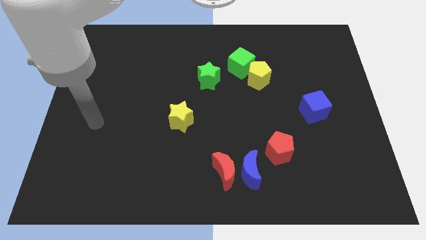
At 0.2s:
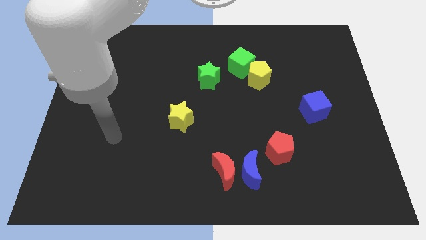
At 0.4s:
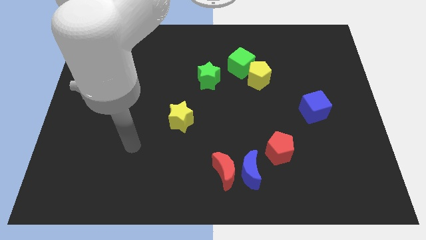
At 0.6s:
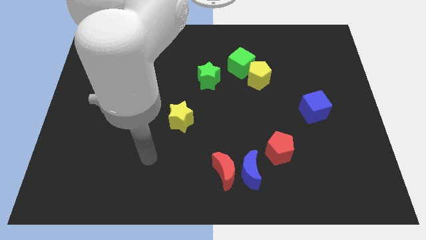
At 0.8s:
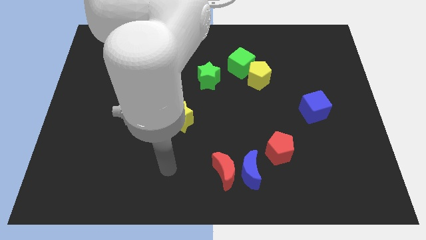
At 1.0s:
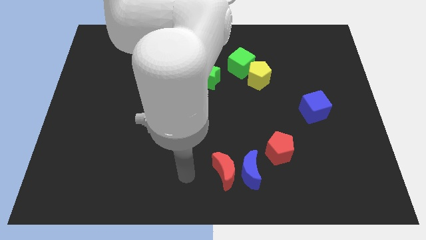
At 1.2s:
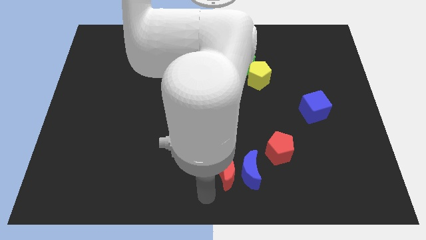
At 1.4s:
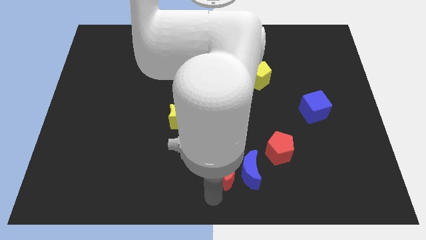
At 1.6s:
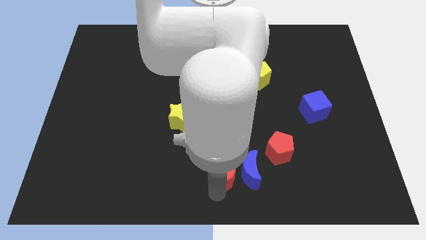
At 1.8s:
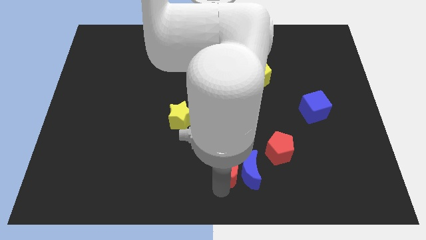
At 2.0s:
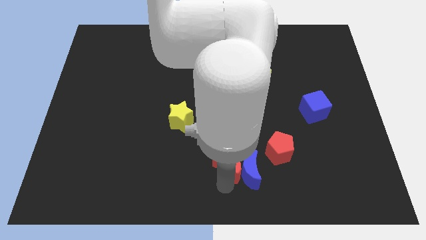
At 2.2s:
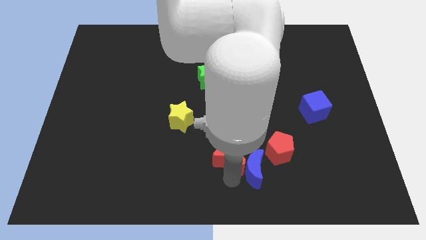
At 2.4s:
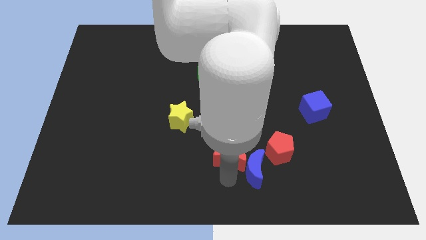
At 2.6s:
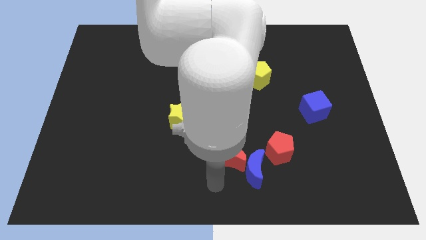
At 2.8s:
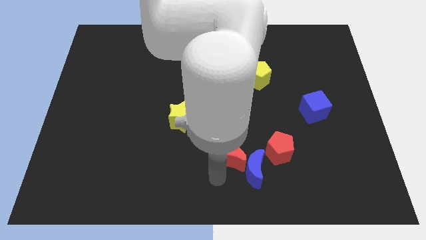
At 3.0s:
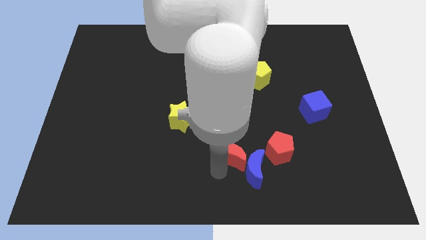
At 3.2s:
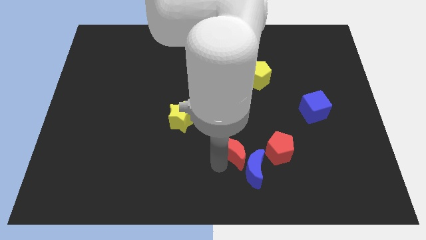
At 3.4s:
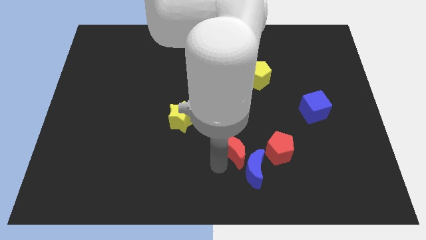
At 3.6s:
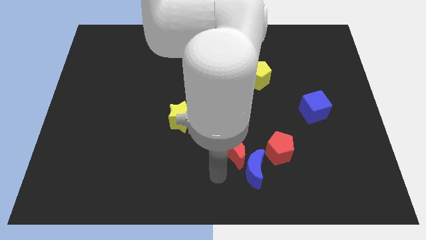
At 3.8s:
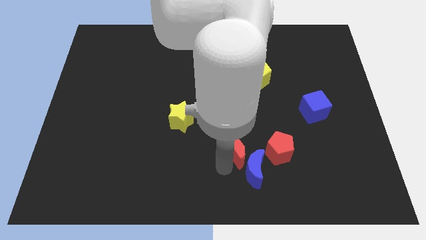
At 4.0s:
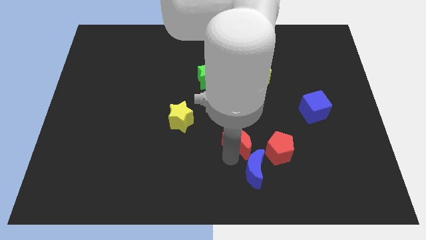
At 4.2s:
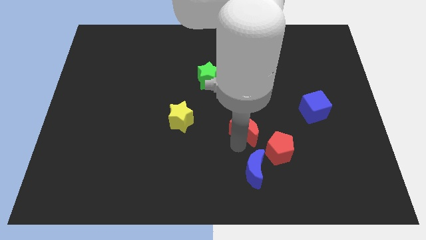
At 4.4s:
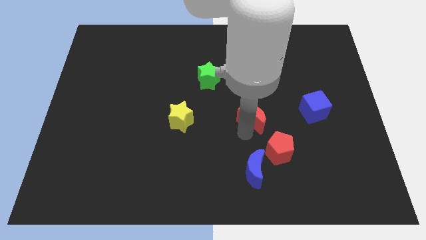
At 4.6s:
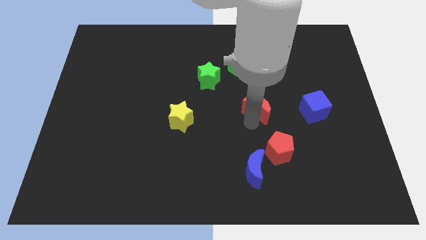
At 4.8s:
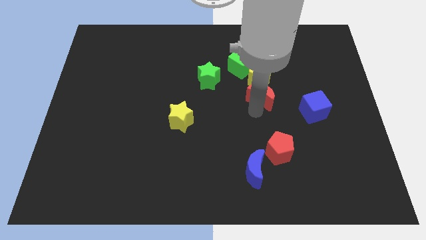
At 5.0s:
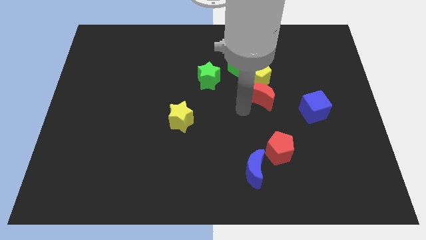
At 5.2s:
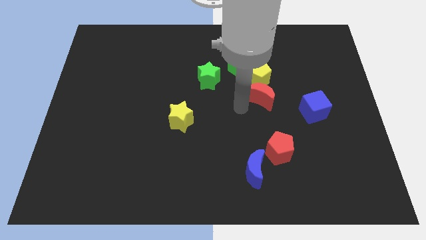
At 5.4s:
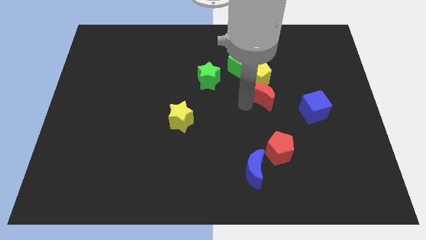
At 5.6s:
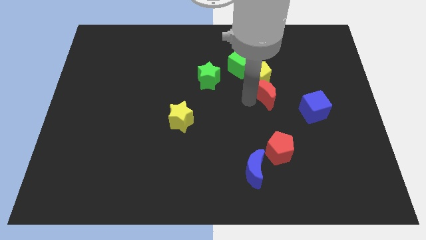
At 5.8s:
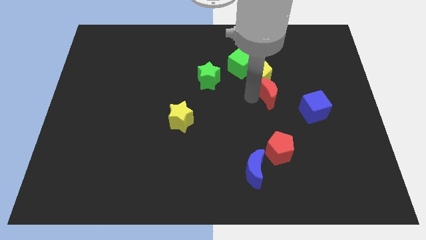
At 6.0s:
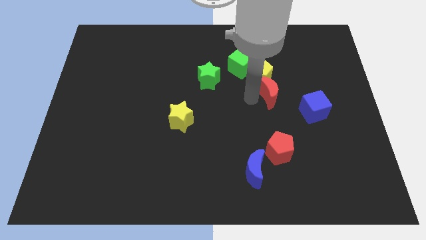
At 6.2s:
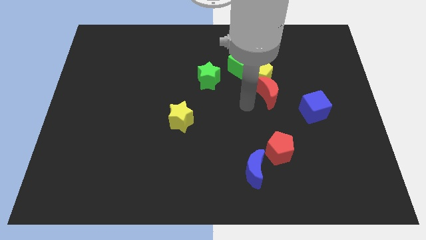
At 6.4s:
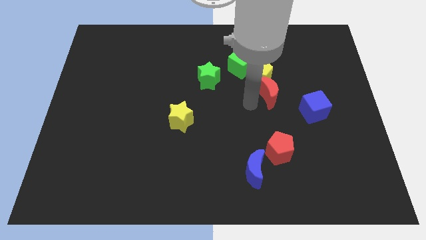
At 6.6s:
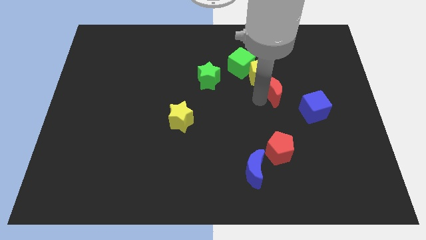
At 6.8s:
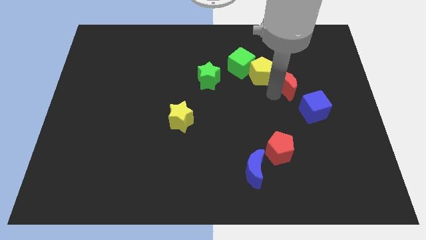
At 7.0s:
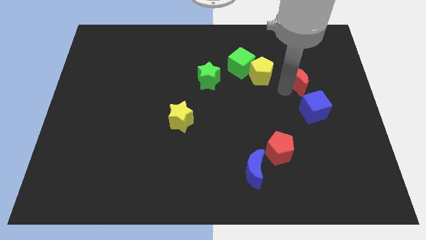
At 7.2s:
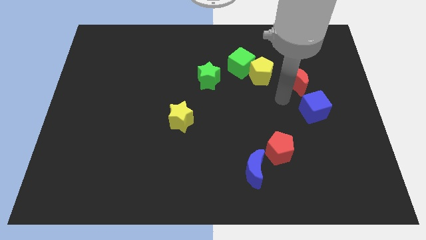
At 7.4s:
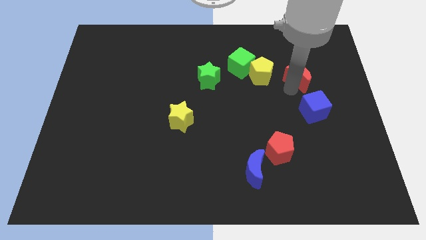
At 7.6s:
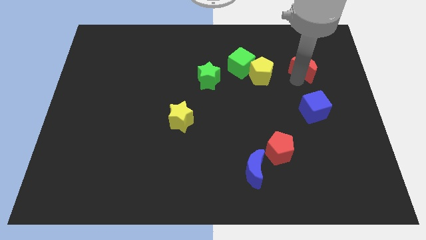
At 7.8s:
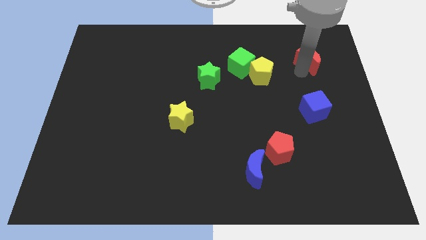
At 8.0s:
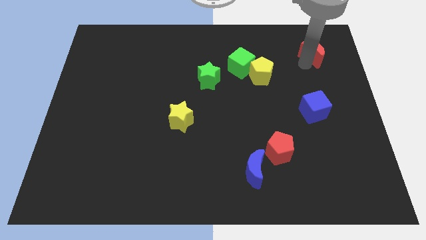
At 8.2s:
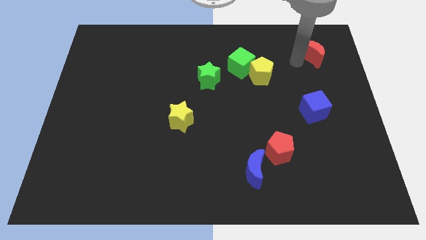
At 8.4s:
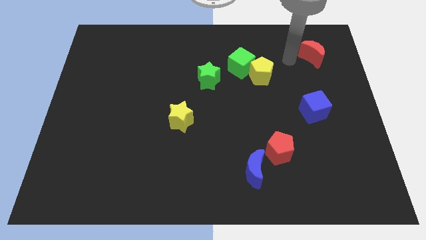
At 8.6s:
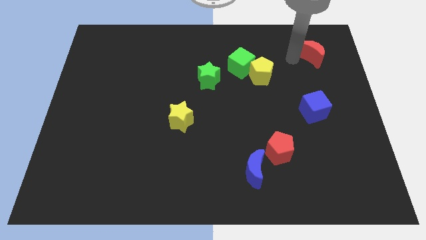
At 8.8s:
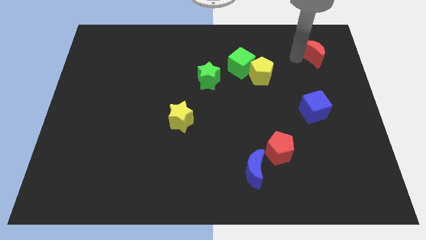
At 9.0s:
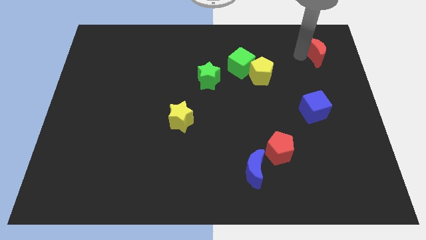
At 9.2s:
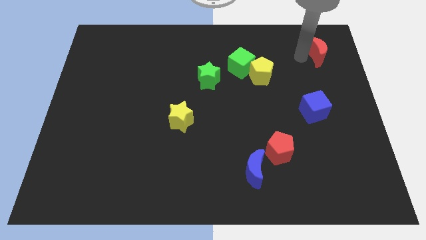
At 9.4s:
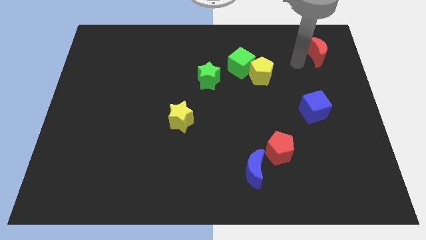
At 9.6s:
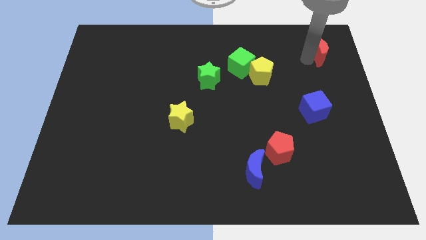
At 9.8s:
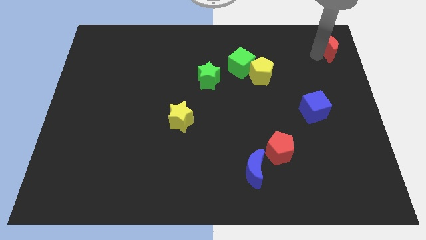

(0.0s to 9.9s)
move the red moon to the top right corner

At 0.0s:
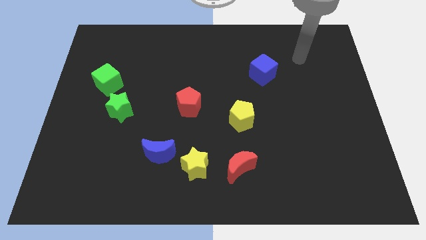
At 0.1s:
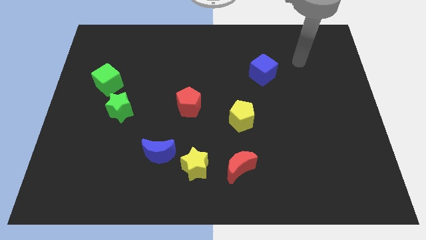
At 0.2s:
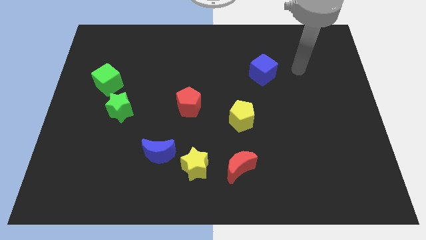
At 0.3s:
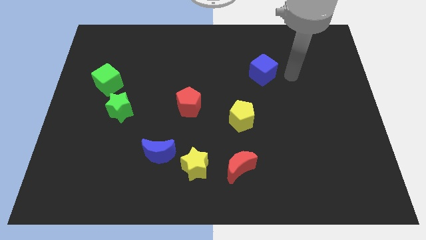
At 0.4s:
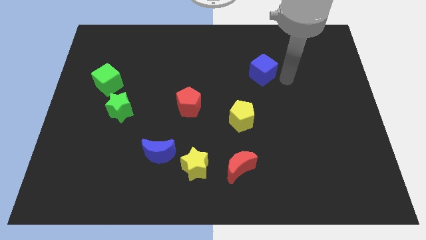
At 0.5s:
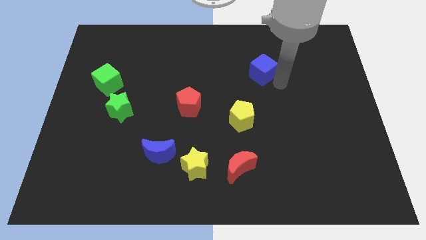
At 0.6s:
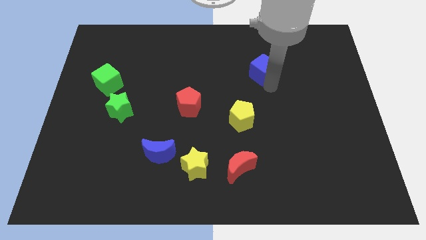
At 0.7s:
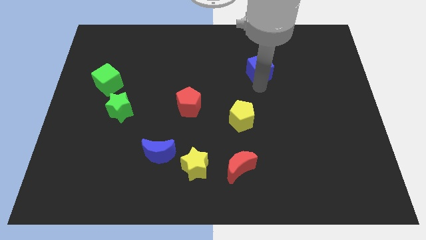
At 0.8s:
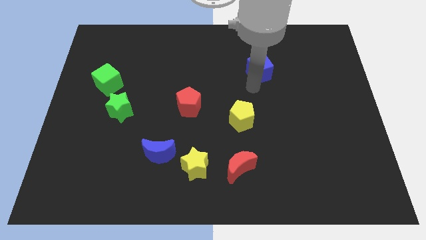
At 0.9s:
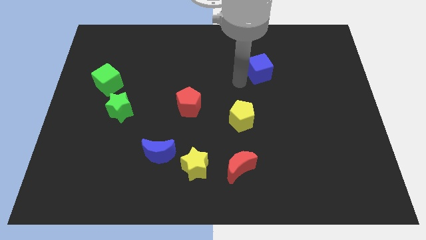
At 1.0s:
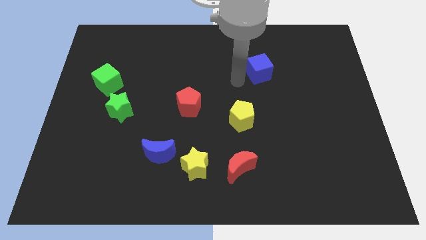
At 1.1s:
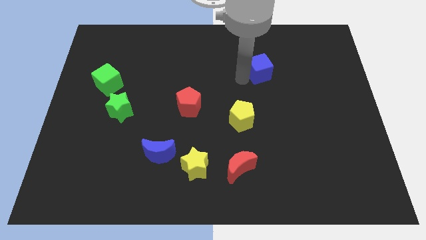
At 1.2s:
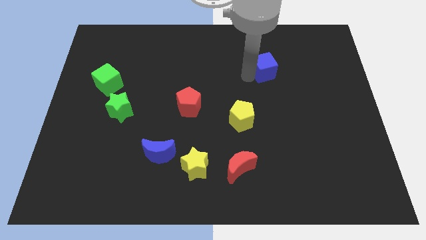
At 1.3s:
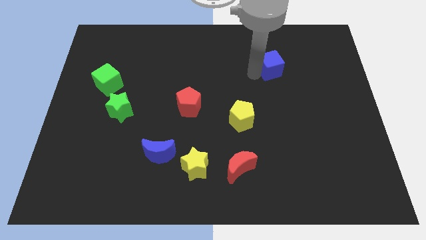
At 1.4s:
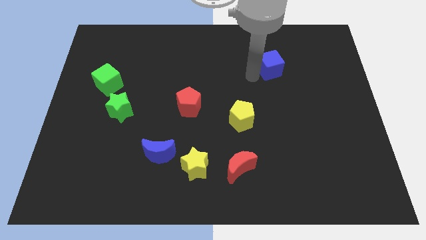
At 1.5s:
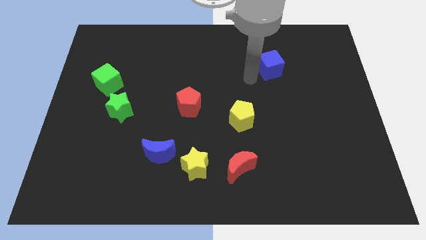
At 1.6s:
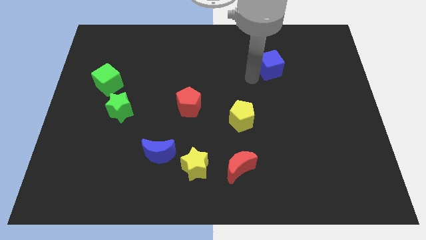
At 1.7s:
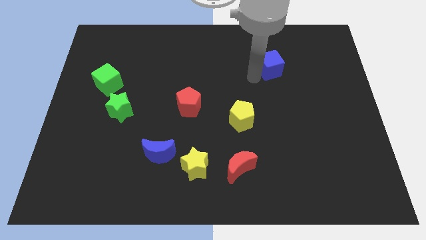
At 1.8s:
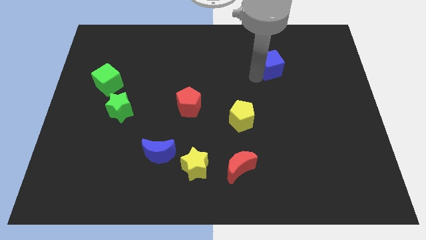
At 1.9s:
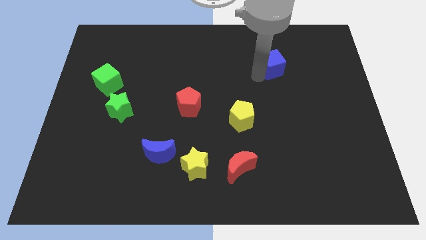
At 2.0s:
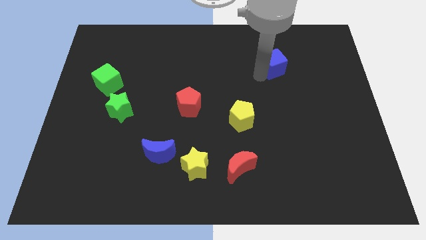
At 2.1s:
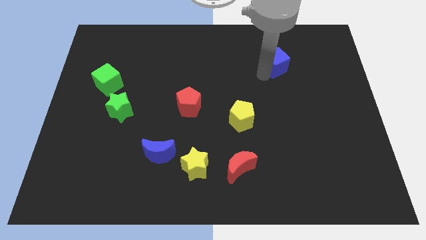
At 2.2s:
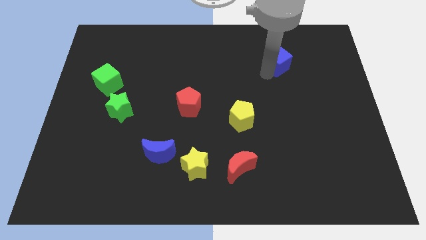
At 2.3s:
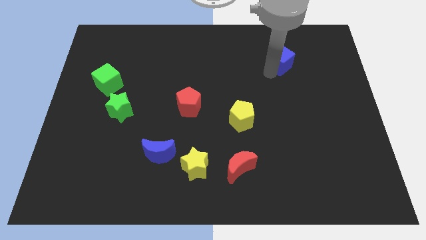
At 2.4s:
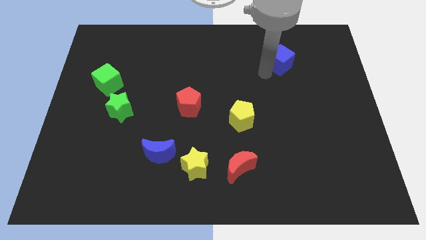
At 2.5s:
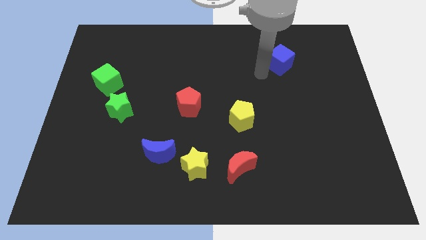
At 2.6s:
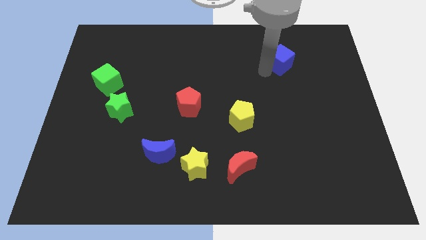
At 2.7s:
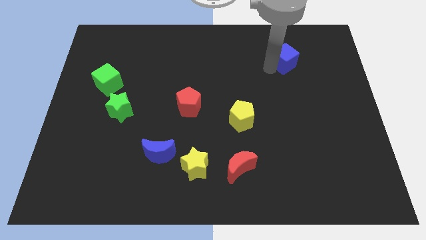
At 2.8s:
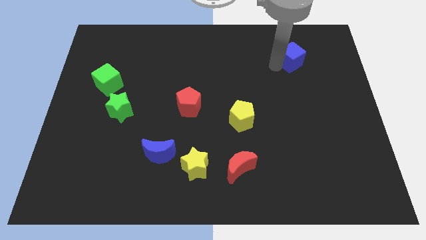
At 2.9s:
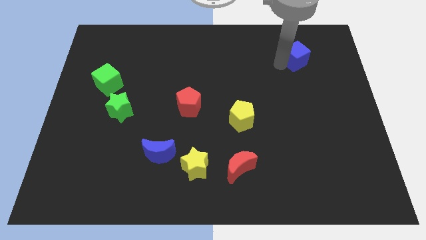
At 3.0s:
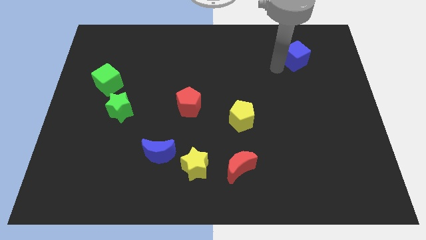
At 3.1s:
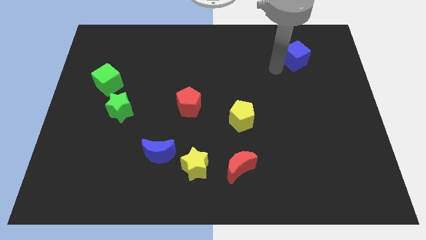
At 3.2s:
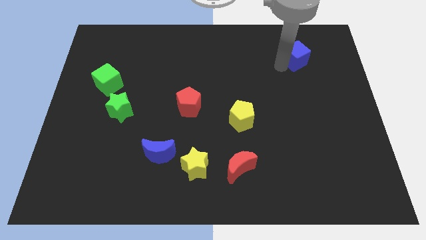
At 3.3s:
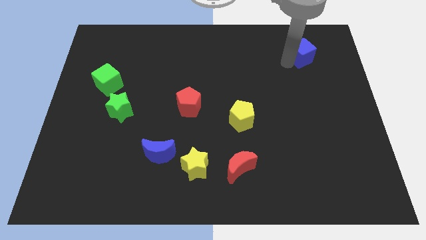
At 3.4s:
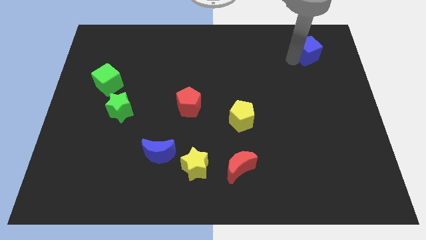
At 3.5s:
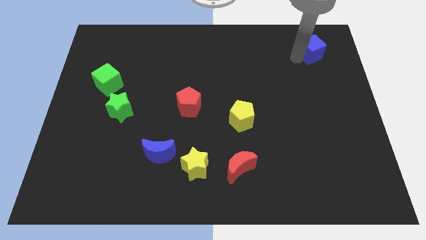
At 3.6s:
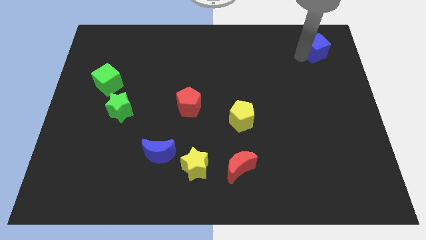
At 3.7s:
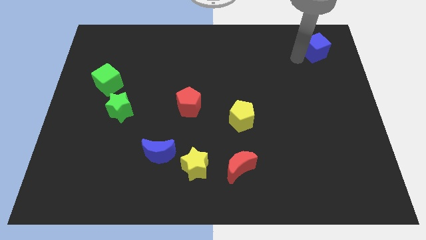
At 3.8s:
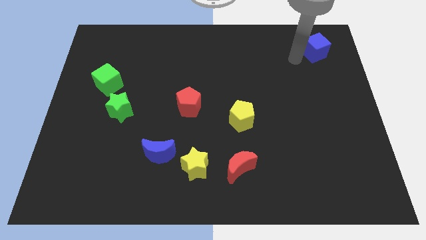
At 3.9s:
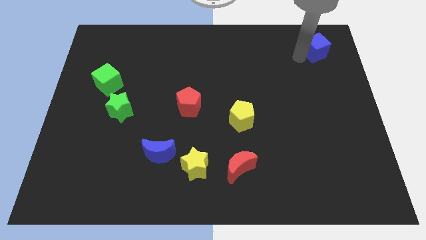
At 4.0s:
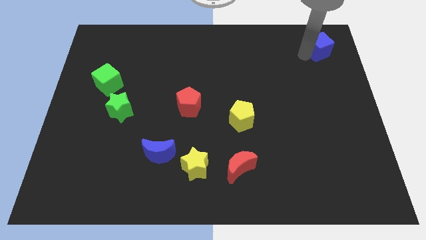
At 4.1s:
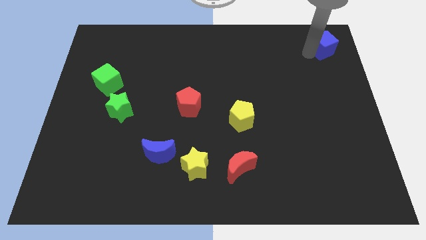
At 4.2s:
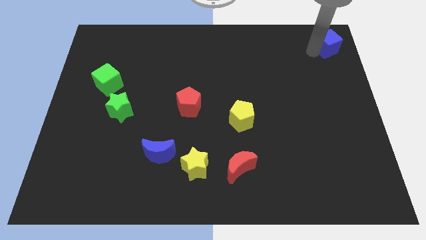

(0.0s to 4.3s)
move the blue cube to the top right
